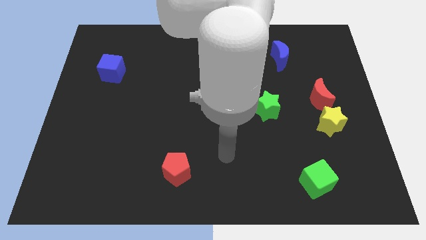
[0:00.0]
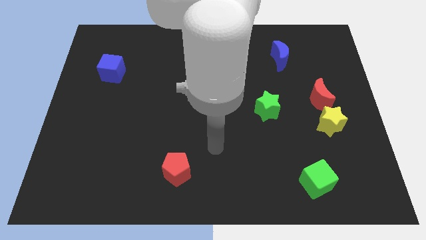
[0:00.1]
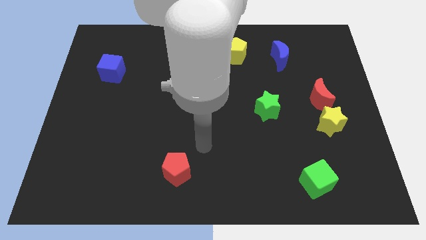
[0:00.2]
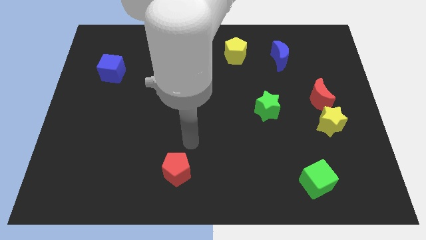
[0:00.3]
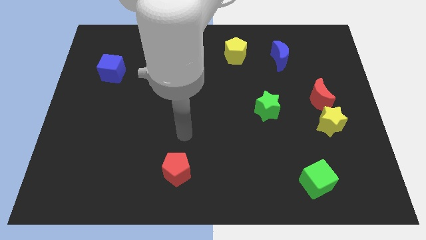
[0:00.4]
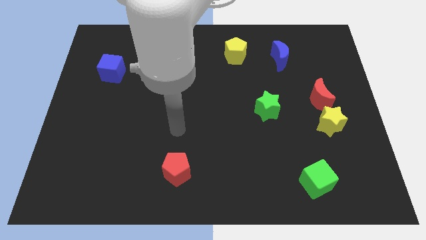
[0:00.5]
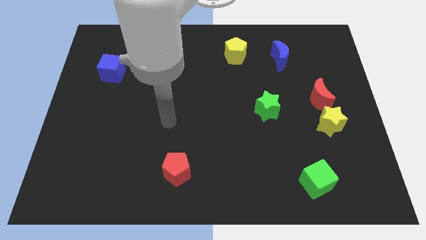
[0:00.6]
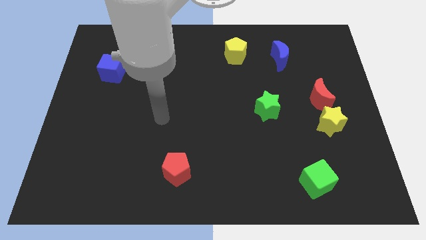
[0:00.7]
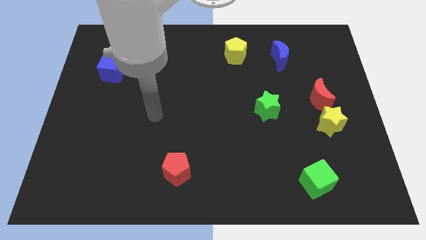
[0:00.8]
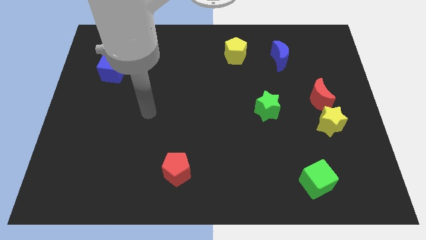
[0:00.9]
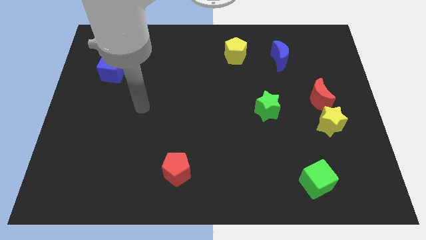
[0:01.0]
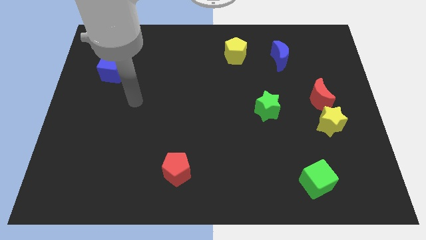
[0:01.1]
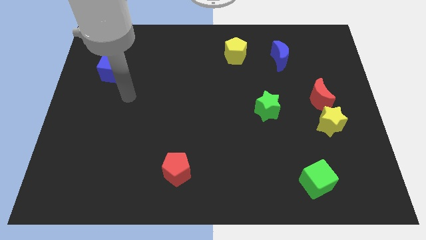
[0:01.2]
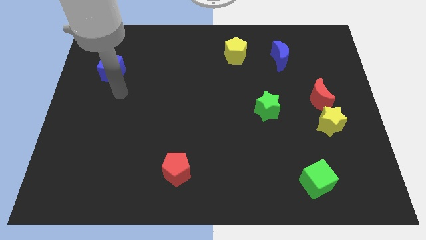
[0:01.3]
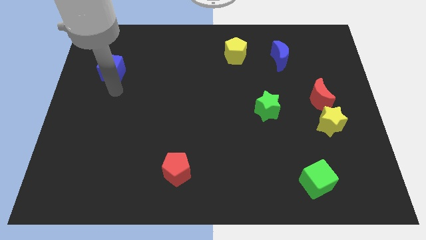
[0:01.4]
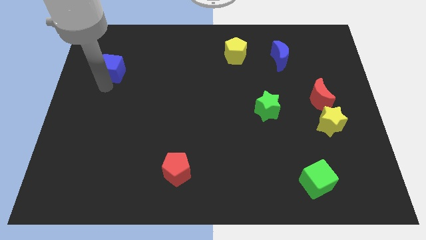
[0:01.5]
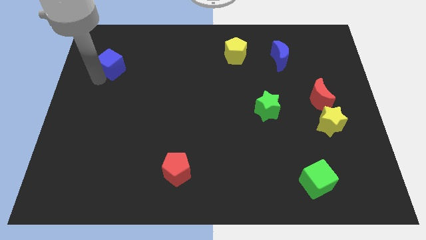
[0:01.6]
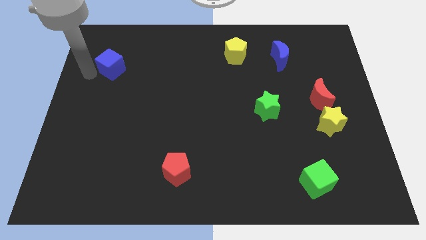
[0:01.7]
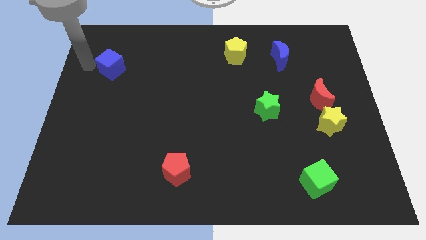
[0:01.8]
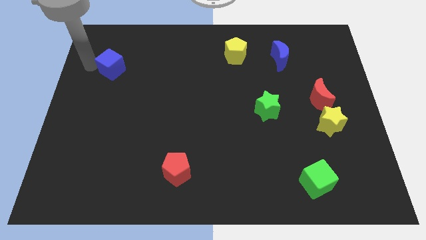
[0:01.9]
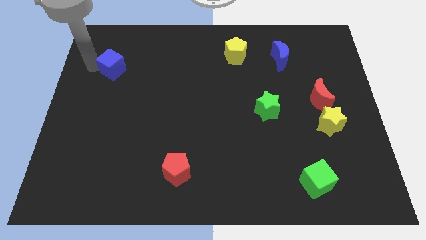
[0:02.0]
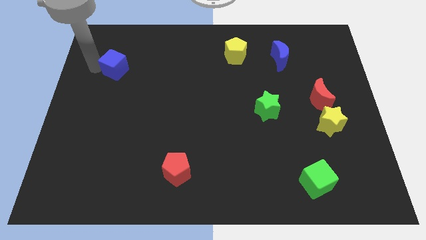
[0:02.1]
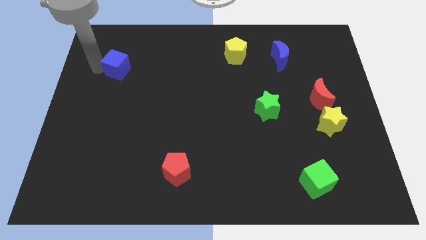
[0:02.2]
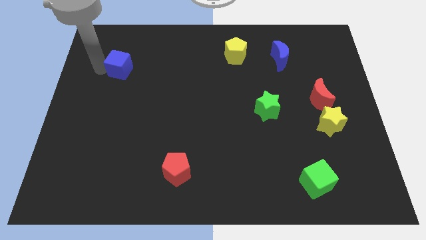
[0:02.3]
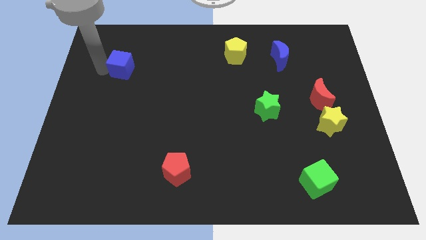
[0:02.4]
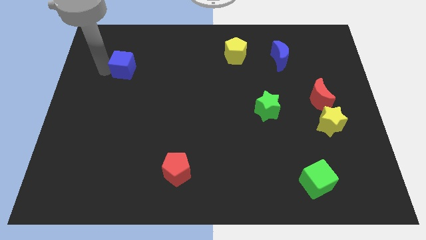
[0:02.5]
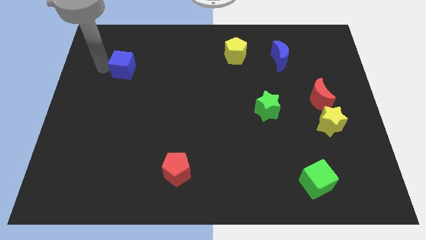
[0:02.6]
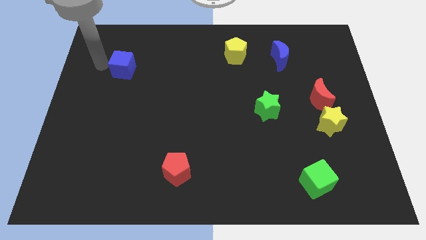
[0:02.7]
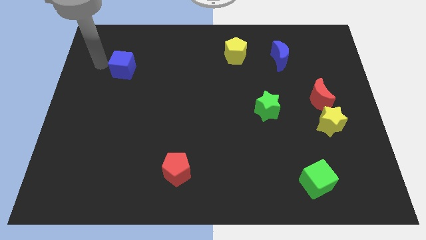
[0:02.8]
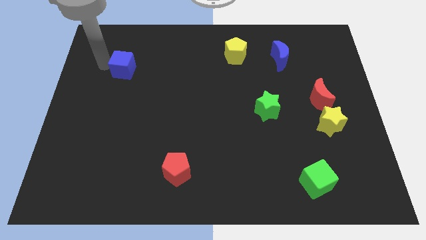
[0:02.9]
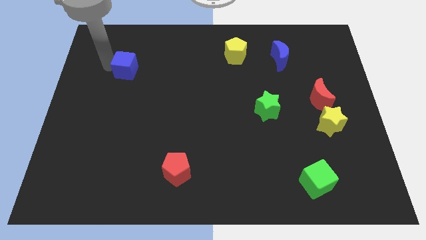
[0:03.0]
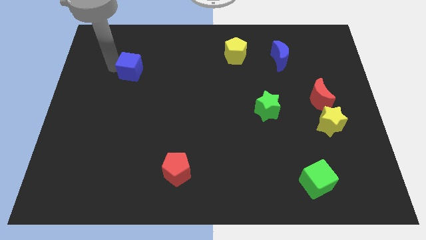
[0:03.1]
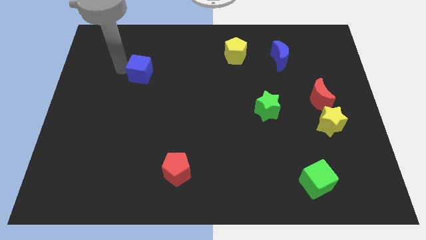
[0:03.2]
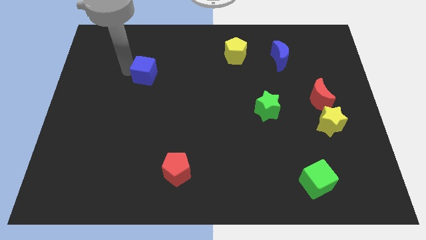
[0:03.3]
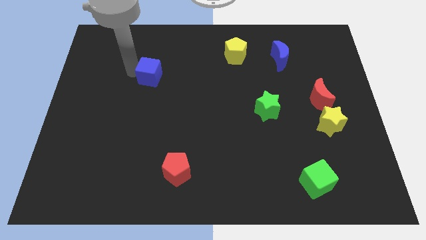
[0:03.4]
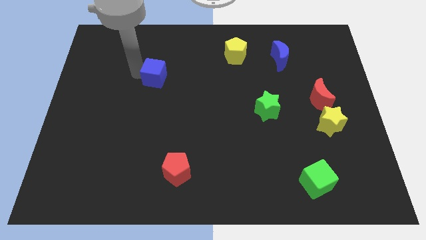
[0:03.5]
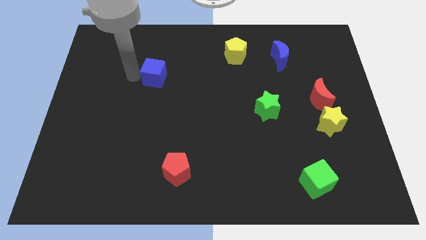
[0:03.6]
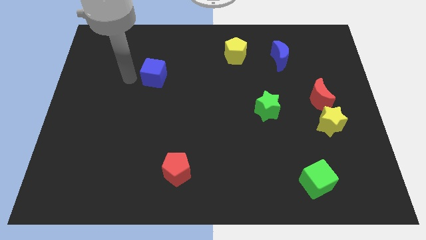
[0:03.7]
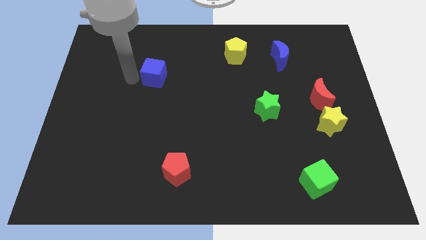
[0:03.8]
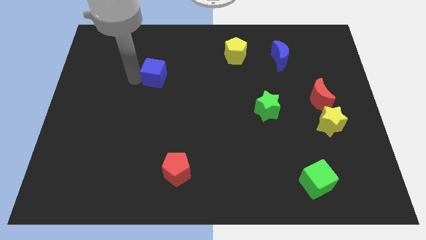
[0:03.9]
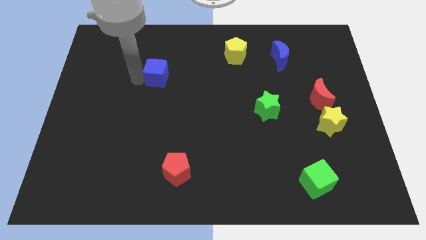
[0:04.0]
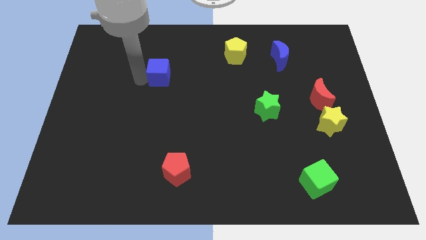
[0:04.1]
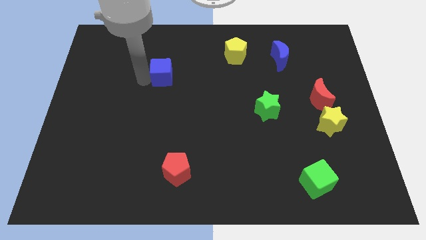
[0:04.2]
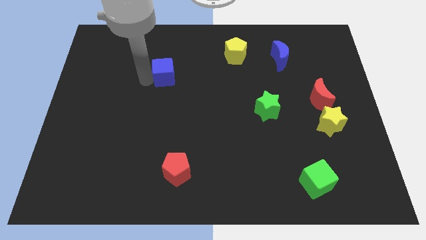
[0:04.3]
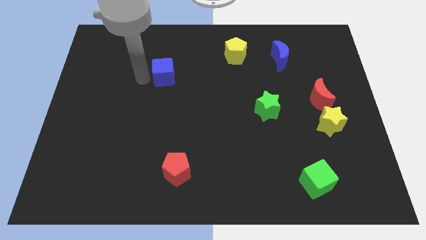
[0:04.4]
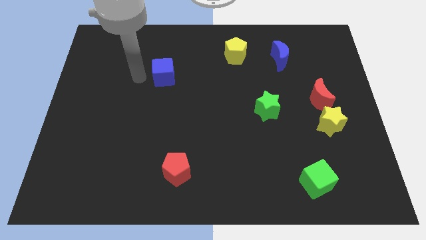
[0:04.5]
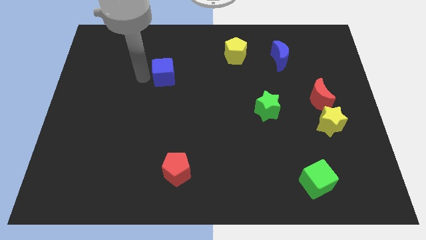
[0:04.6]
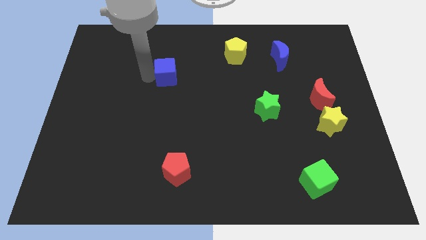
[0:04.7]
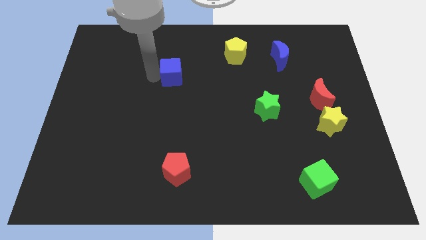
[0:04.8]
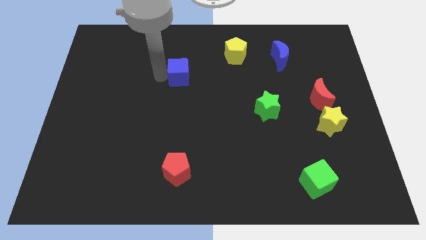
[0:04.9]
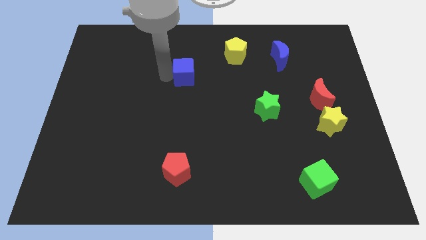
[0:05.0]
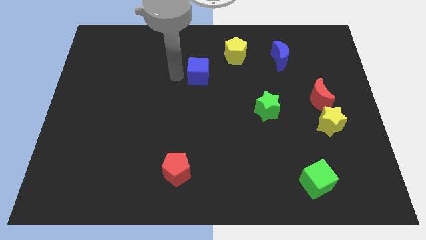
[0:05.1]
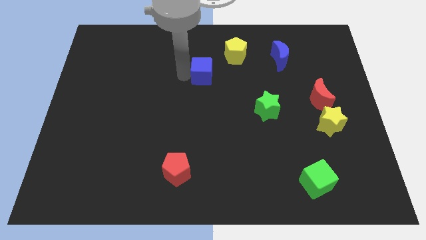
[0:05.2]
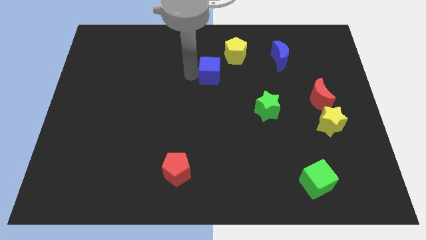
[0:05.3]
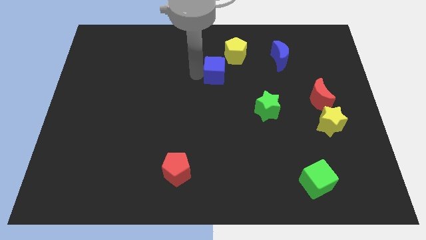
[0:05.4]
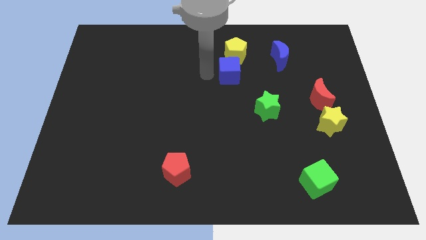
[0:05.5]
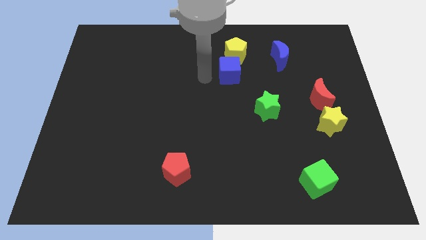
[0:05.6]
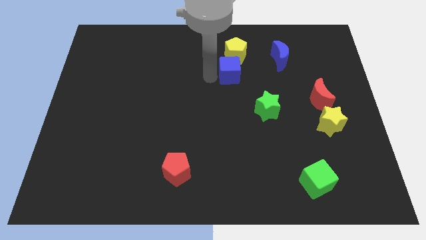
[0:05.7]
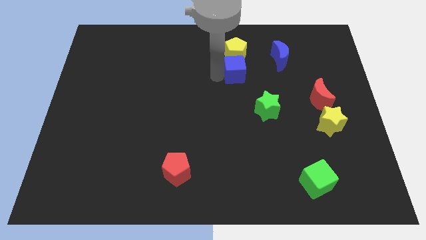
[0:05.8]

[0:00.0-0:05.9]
move the blue cube diagonally down and to the right of the yellow pentagon
